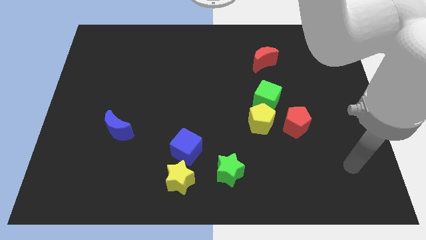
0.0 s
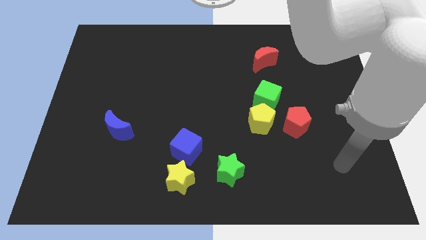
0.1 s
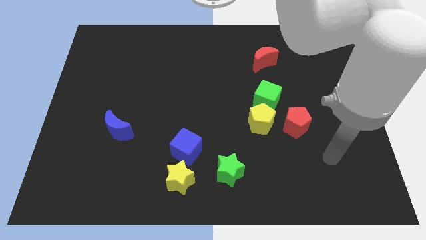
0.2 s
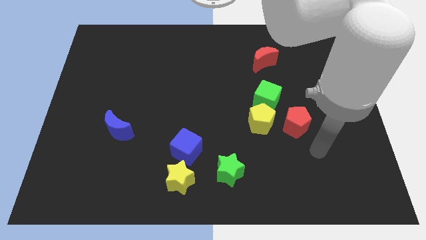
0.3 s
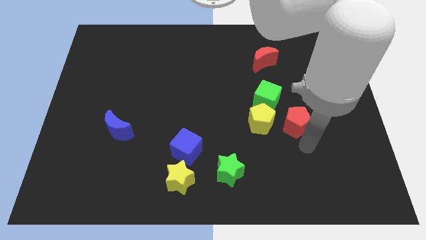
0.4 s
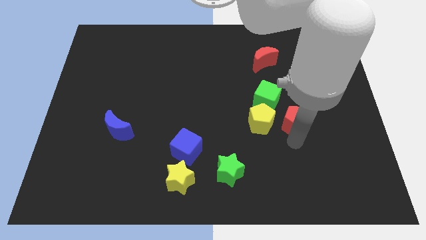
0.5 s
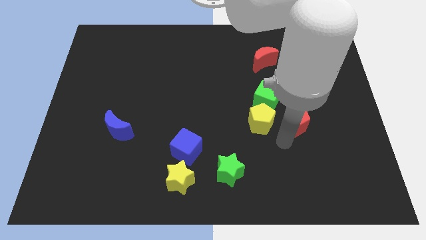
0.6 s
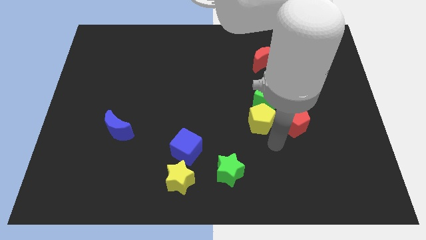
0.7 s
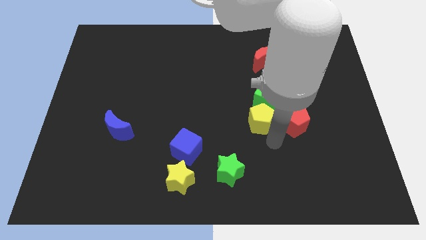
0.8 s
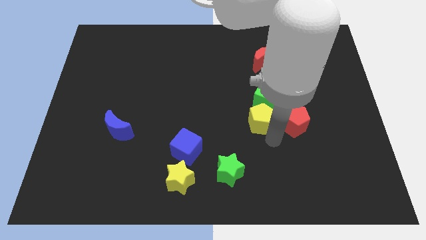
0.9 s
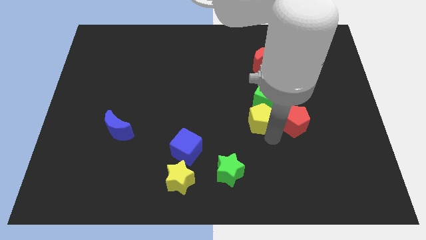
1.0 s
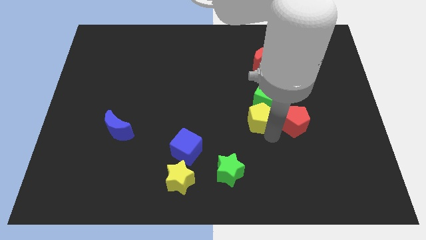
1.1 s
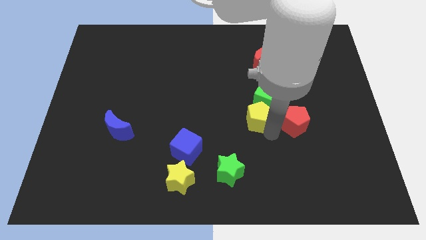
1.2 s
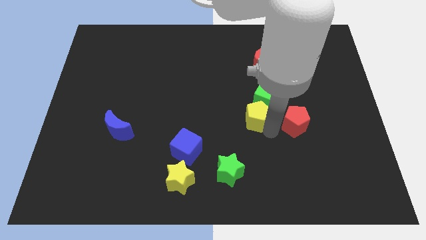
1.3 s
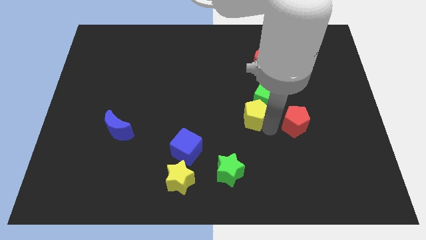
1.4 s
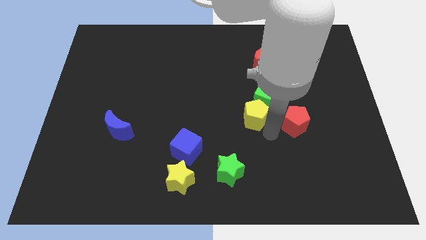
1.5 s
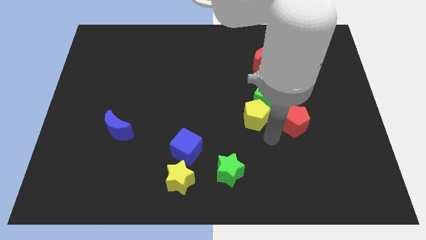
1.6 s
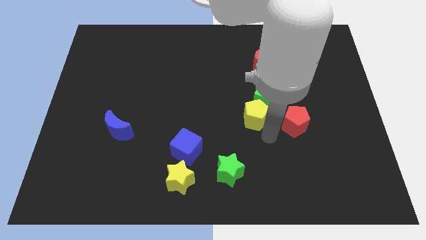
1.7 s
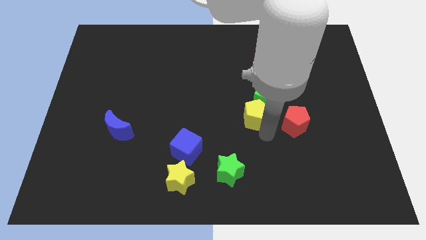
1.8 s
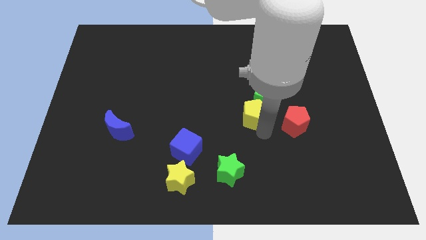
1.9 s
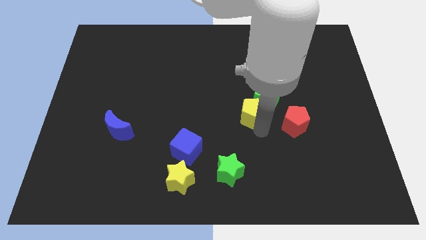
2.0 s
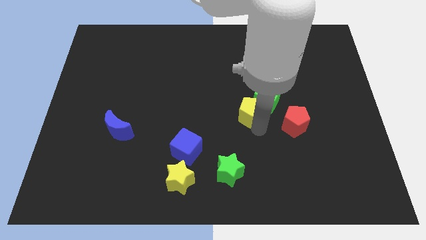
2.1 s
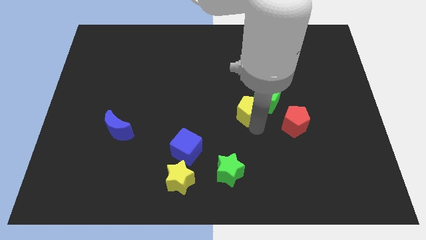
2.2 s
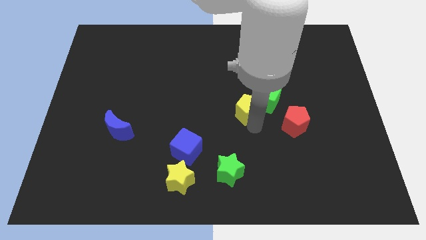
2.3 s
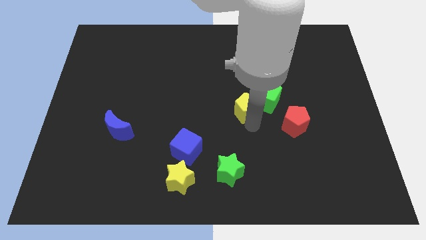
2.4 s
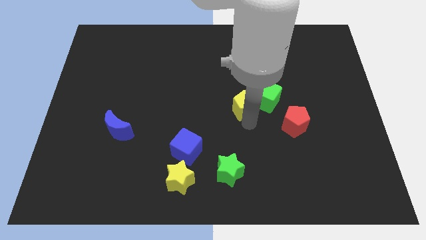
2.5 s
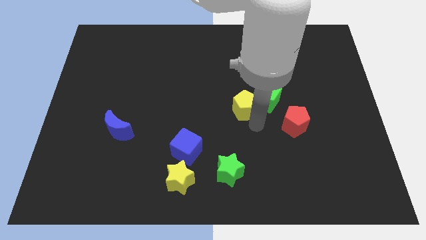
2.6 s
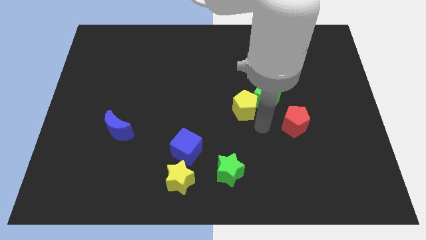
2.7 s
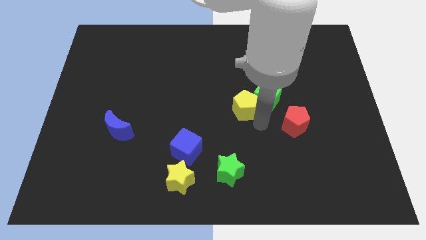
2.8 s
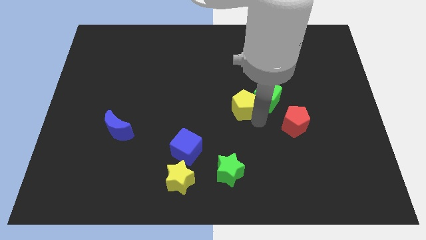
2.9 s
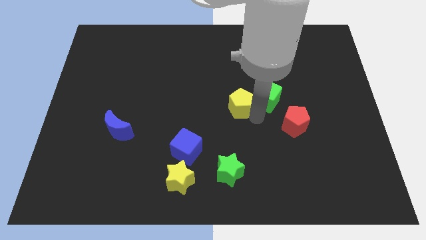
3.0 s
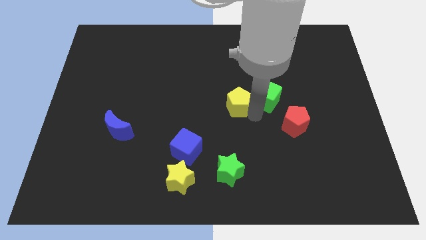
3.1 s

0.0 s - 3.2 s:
slightly move the yellow pentagon up and then left

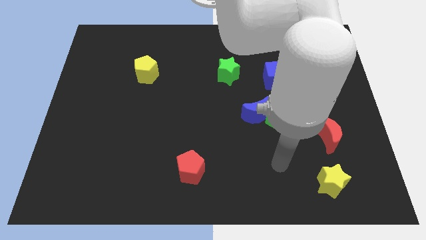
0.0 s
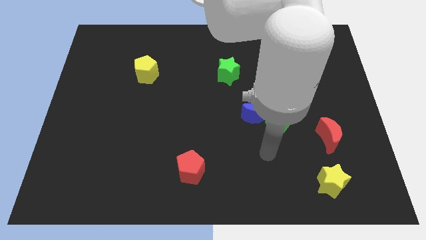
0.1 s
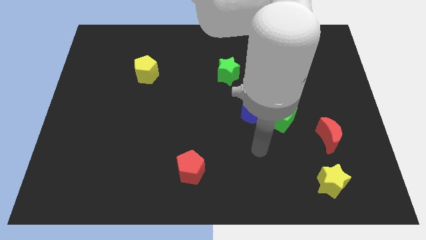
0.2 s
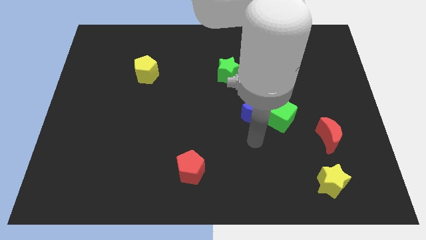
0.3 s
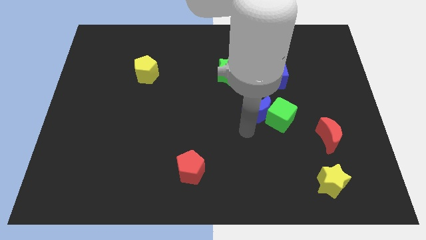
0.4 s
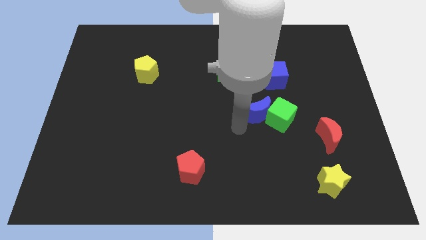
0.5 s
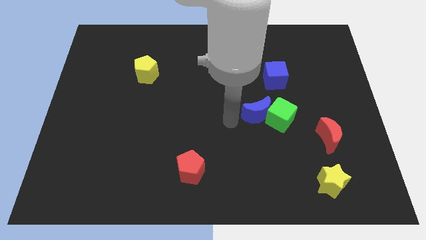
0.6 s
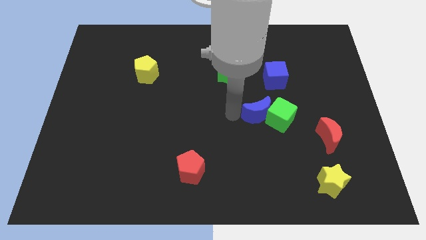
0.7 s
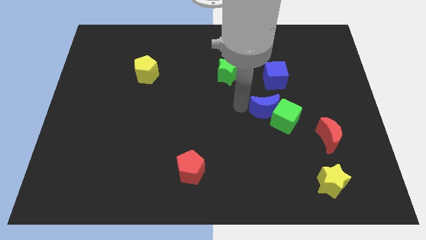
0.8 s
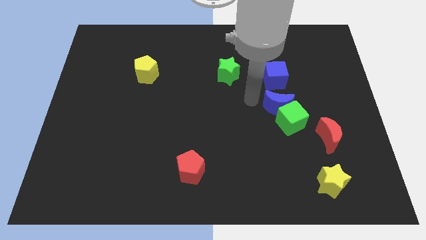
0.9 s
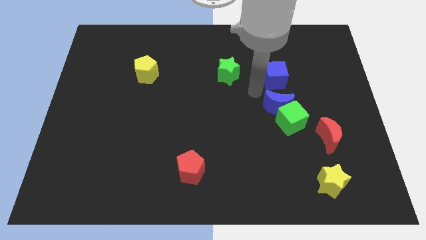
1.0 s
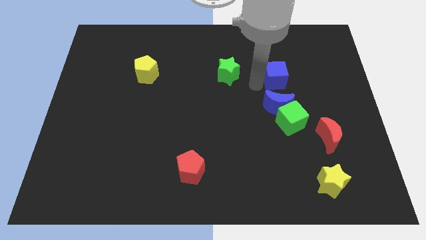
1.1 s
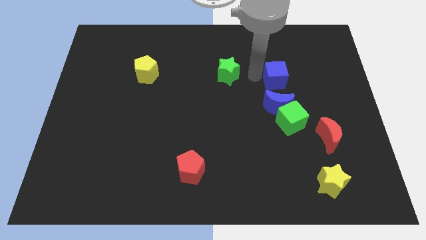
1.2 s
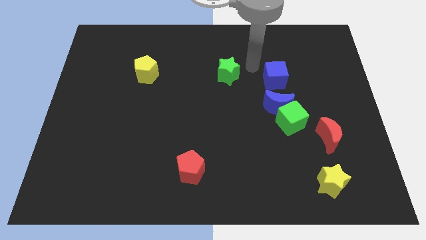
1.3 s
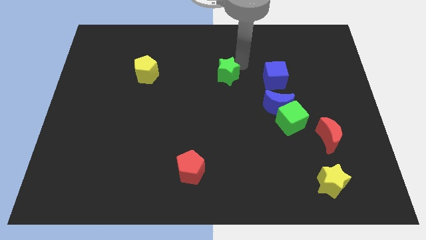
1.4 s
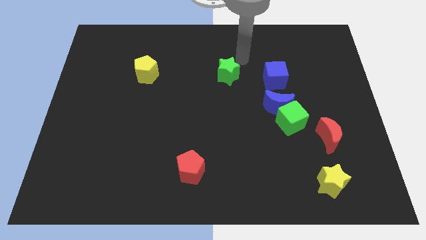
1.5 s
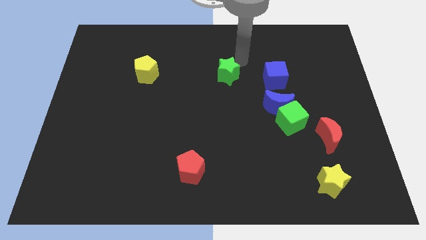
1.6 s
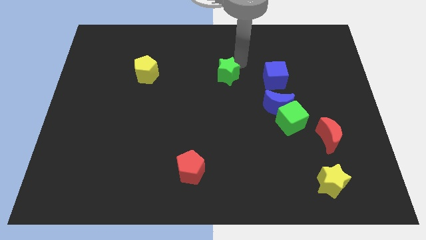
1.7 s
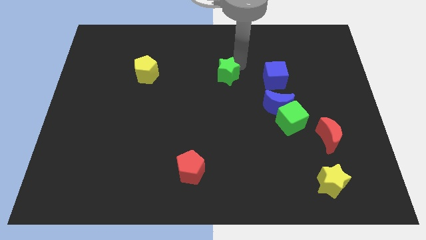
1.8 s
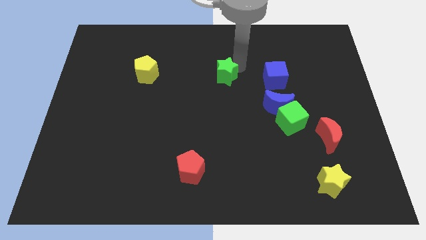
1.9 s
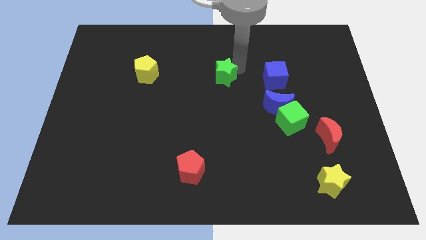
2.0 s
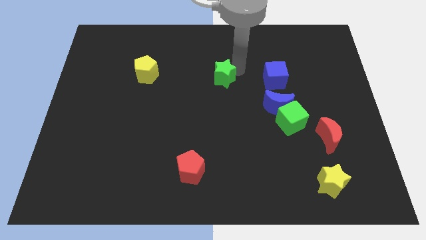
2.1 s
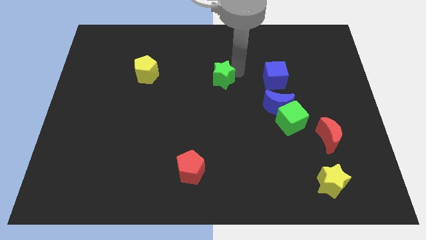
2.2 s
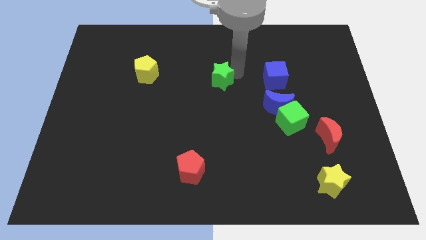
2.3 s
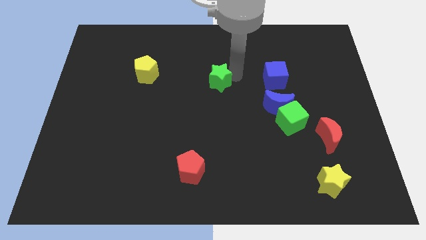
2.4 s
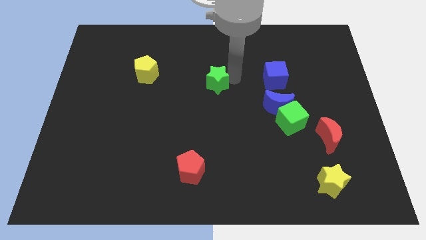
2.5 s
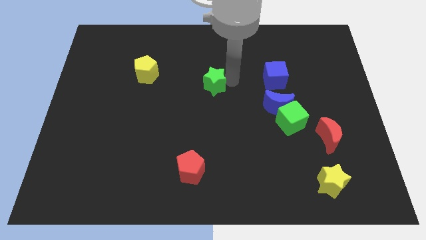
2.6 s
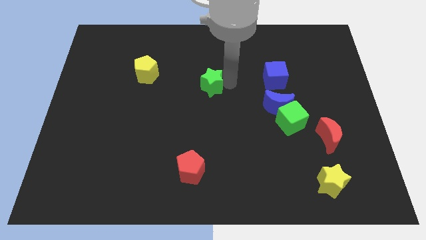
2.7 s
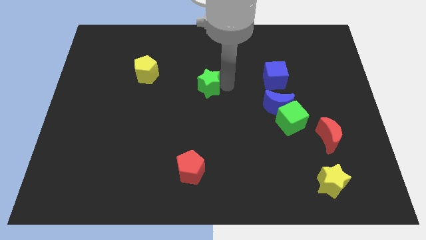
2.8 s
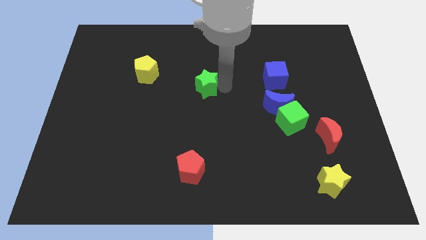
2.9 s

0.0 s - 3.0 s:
slide the green star a bit down and to the left diagonally

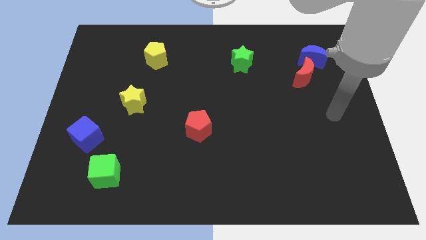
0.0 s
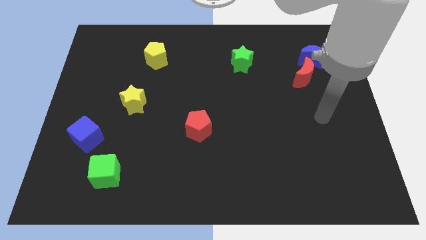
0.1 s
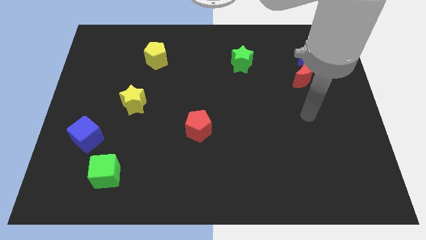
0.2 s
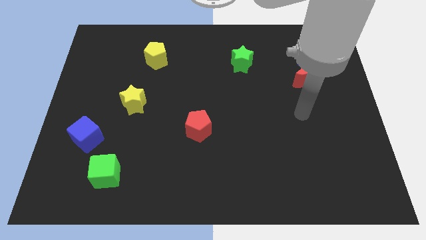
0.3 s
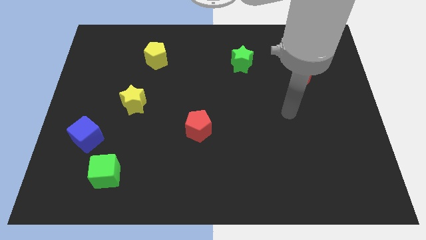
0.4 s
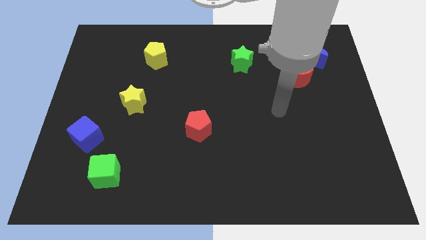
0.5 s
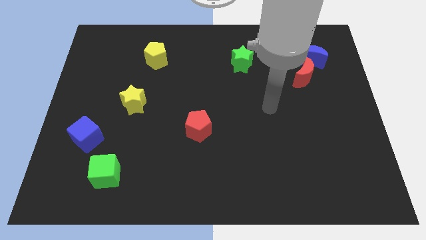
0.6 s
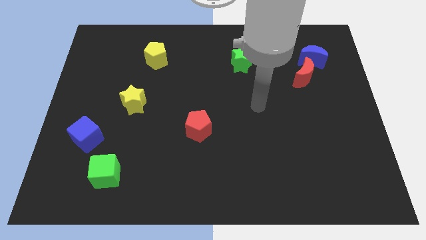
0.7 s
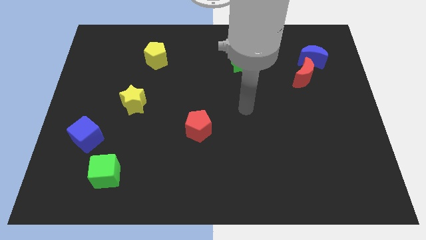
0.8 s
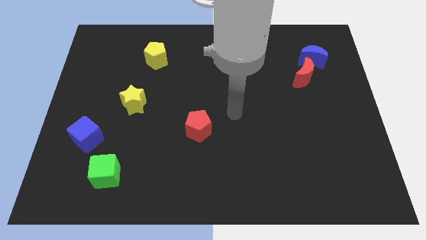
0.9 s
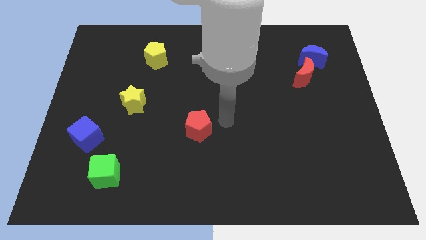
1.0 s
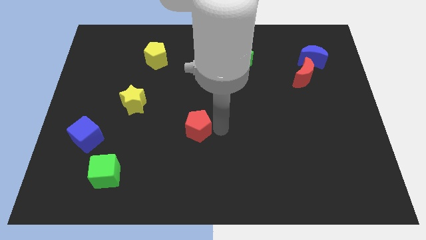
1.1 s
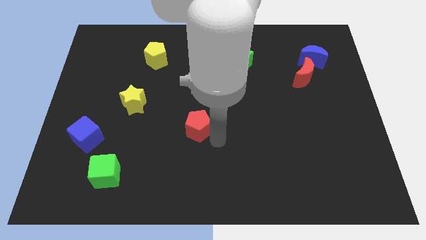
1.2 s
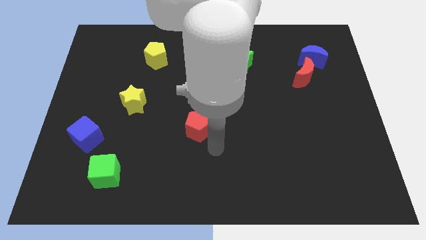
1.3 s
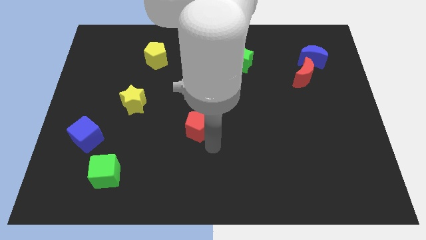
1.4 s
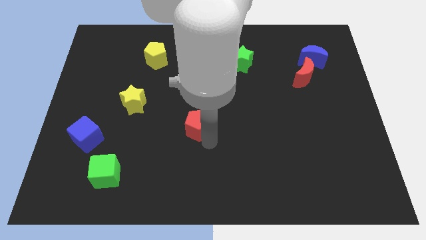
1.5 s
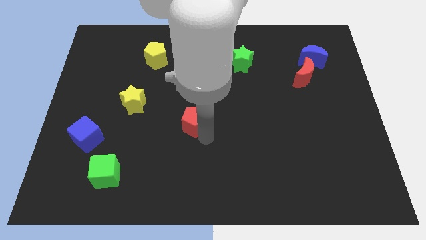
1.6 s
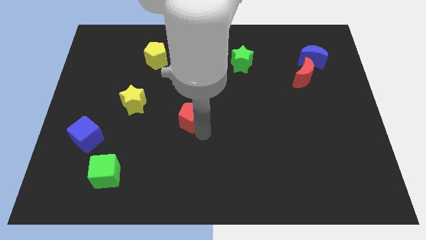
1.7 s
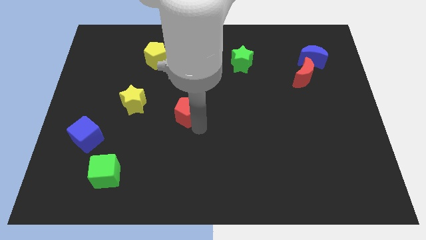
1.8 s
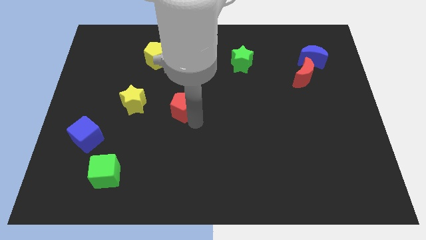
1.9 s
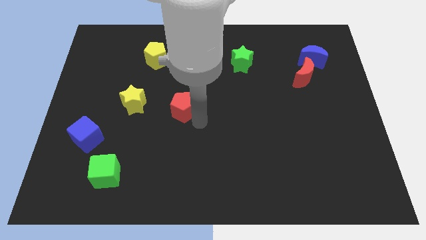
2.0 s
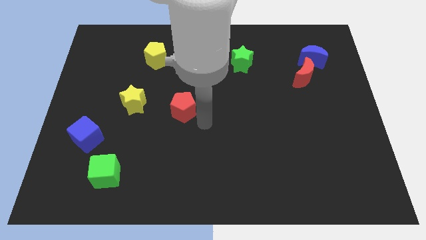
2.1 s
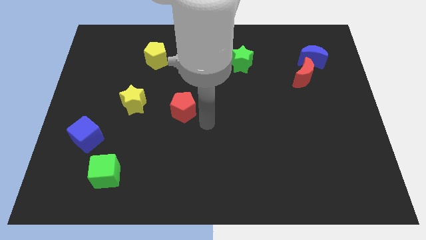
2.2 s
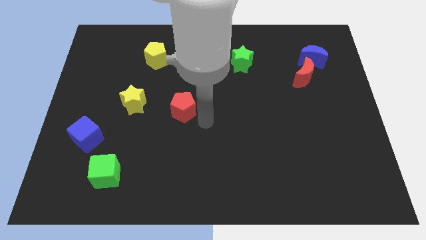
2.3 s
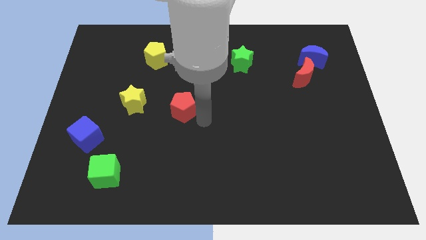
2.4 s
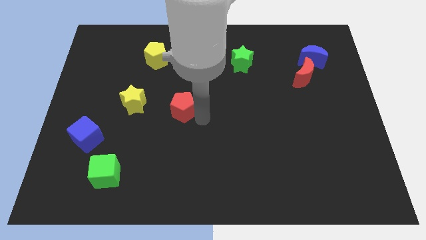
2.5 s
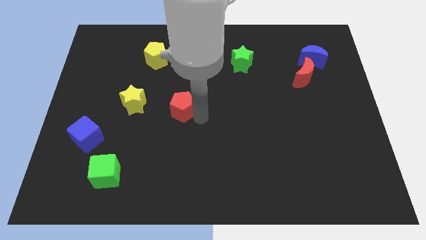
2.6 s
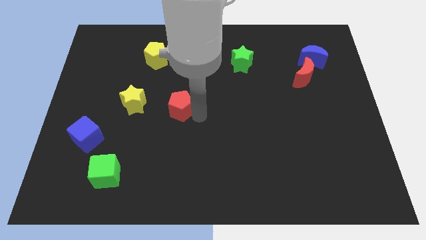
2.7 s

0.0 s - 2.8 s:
slightly slide the red pentagon upwards and then to the left
